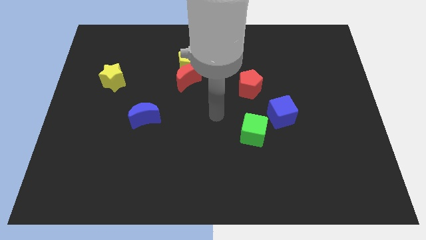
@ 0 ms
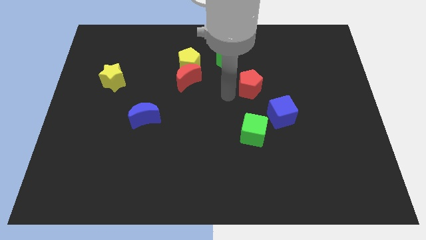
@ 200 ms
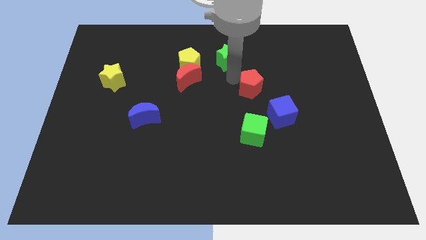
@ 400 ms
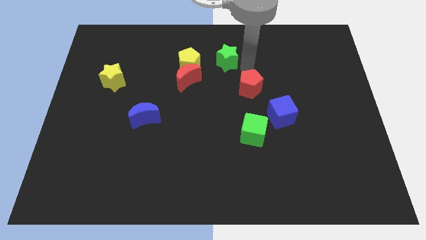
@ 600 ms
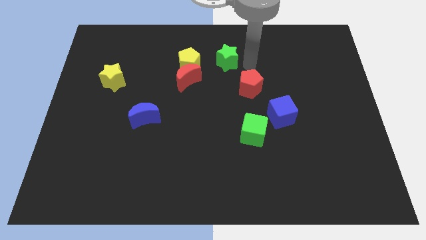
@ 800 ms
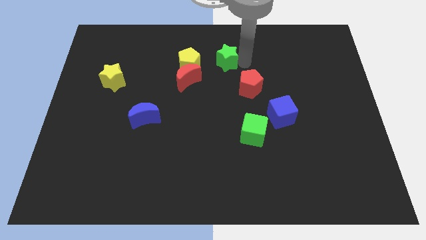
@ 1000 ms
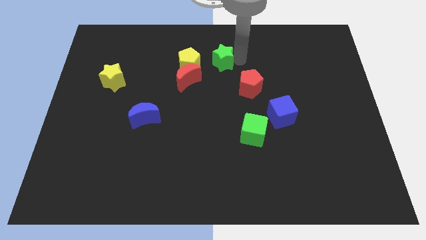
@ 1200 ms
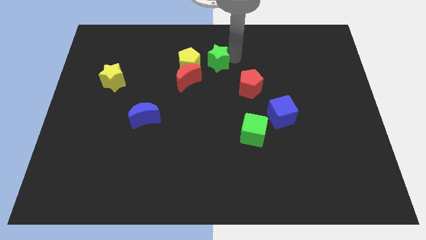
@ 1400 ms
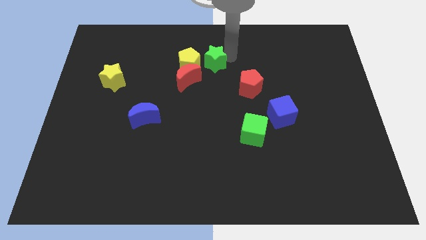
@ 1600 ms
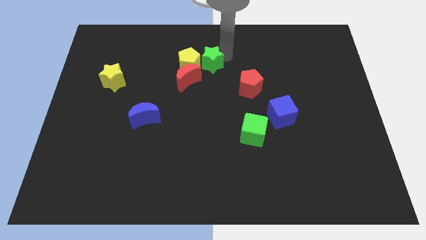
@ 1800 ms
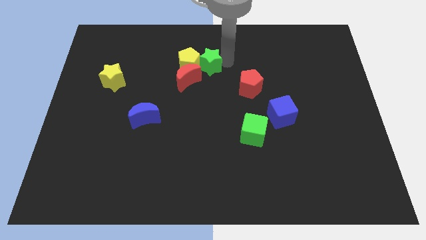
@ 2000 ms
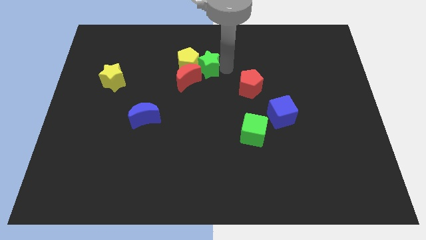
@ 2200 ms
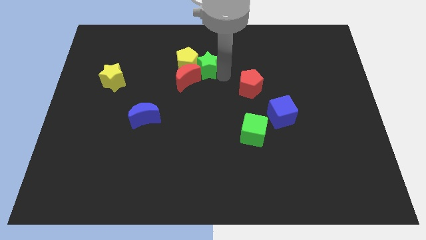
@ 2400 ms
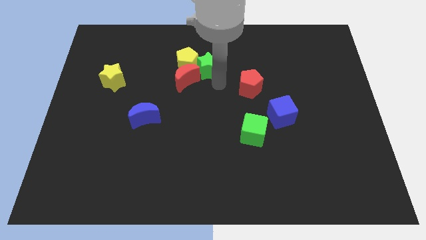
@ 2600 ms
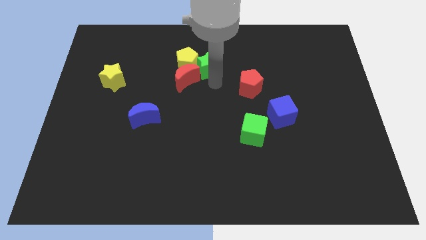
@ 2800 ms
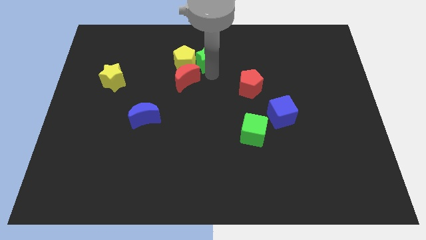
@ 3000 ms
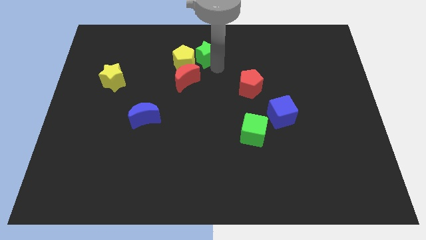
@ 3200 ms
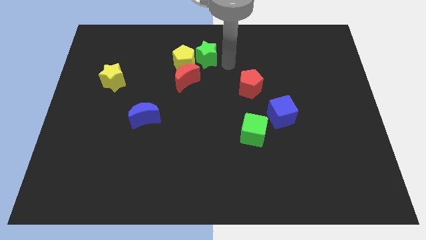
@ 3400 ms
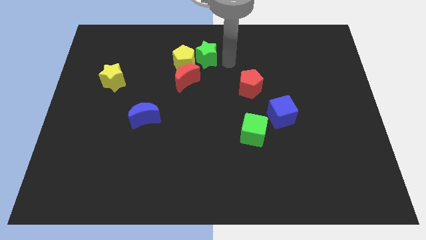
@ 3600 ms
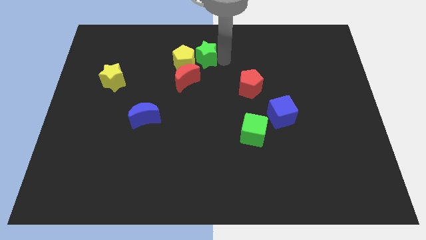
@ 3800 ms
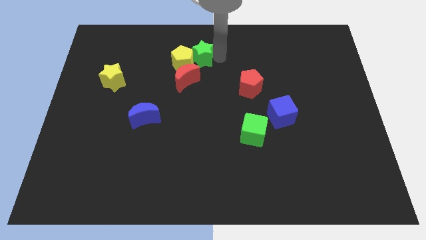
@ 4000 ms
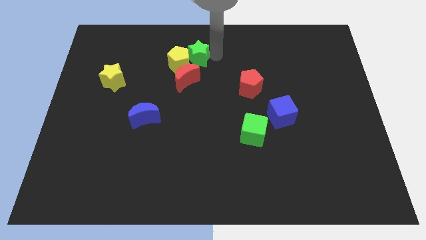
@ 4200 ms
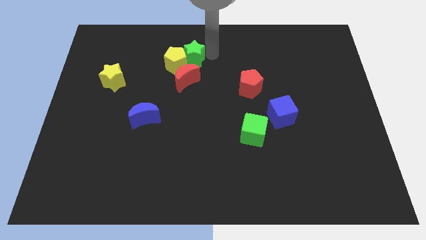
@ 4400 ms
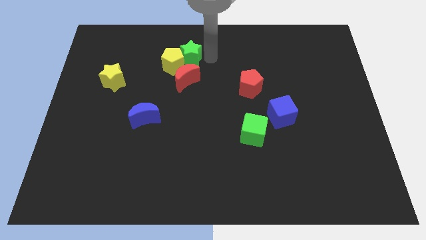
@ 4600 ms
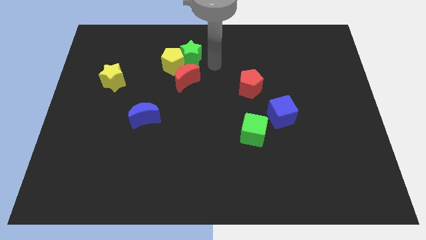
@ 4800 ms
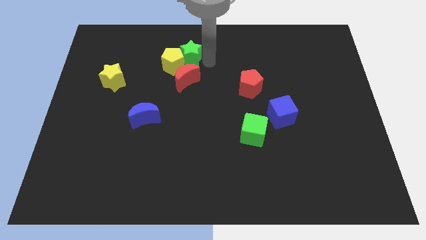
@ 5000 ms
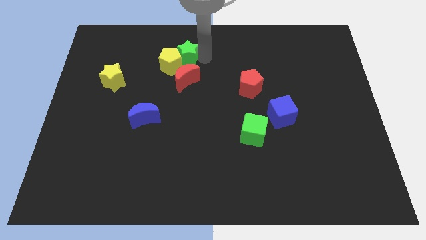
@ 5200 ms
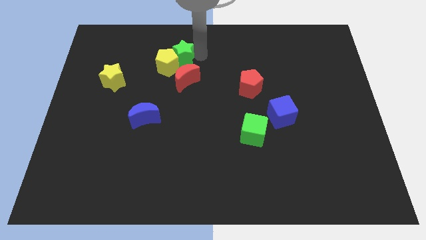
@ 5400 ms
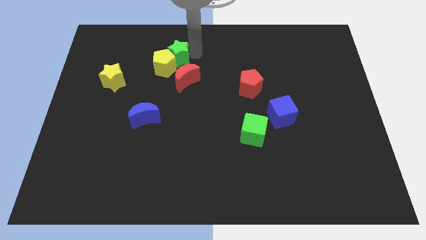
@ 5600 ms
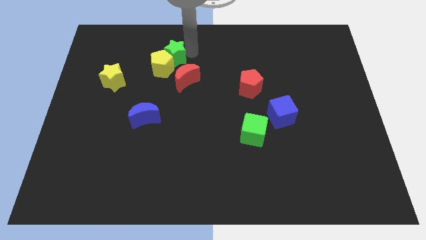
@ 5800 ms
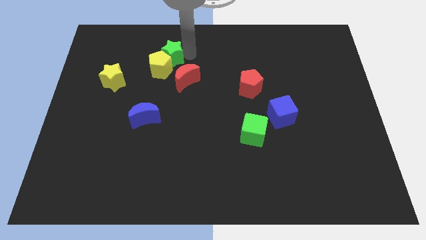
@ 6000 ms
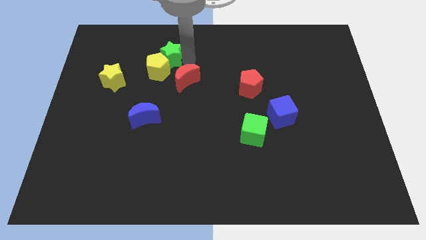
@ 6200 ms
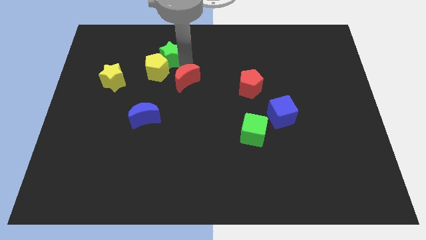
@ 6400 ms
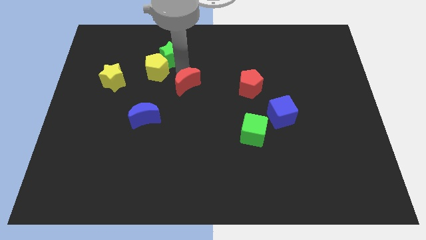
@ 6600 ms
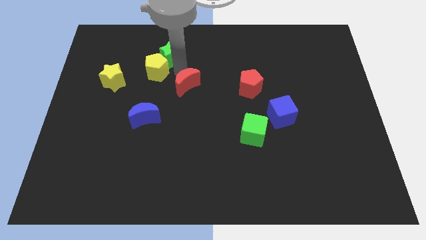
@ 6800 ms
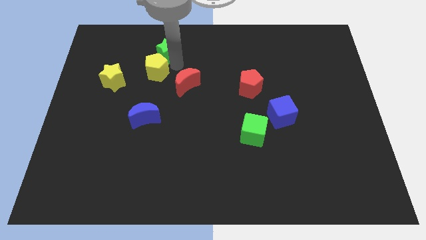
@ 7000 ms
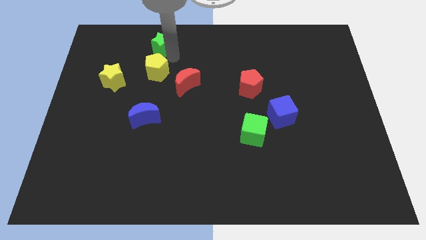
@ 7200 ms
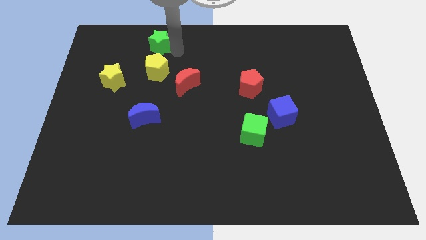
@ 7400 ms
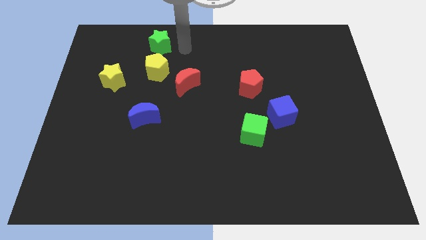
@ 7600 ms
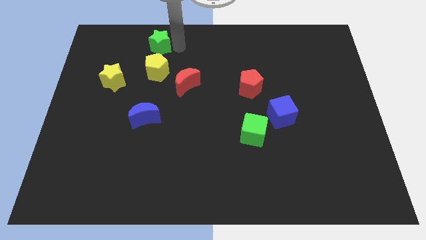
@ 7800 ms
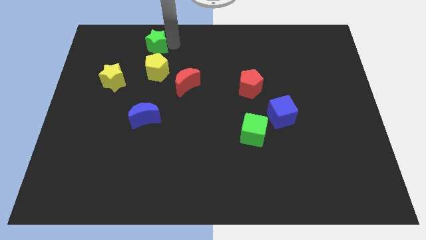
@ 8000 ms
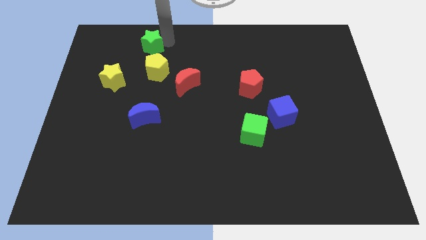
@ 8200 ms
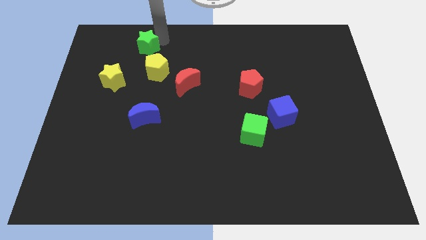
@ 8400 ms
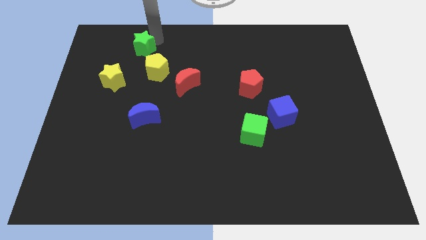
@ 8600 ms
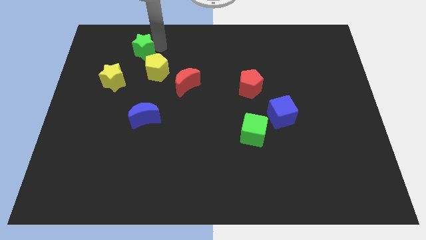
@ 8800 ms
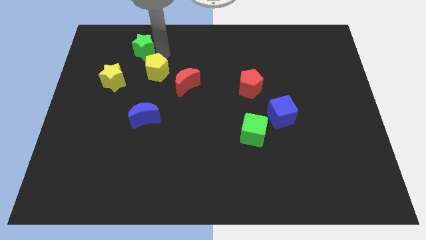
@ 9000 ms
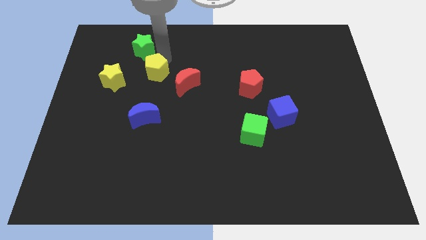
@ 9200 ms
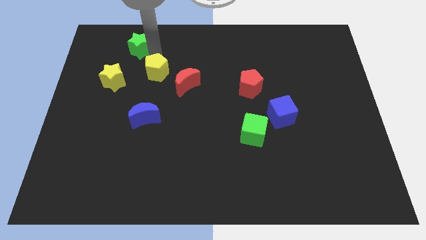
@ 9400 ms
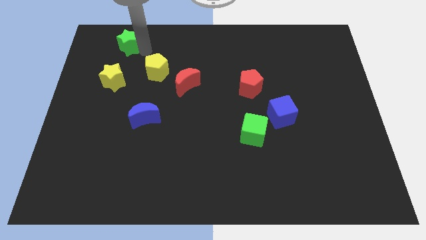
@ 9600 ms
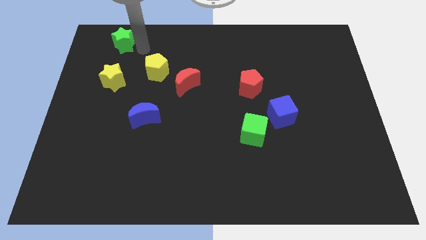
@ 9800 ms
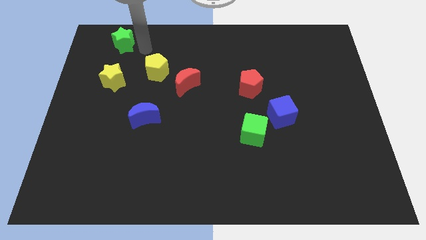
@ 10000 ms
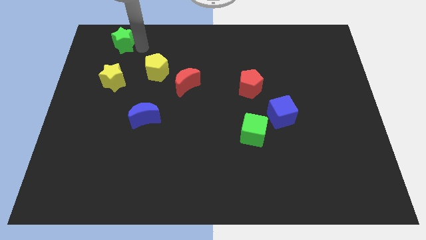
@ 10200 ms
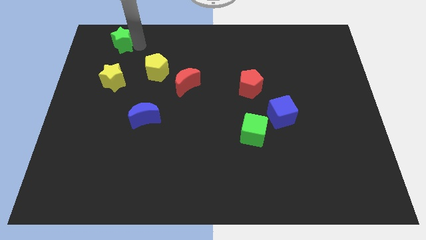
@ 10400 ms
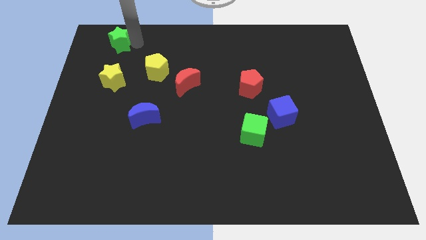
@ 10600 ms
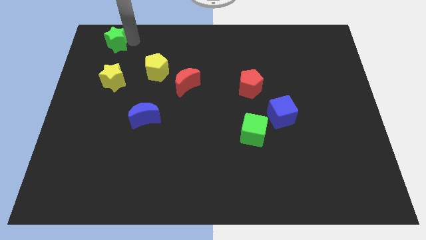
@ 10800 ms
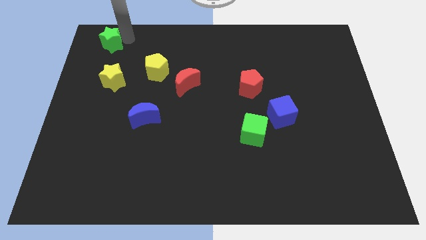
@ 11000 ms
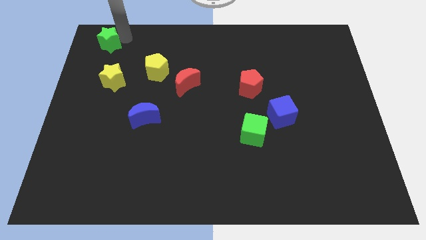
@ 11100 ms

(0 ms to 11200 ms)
move the green star to the top left of the board

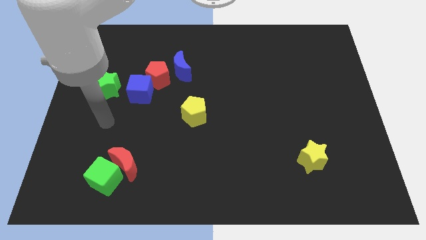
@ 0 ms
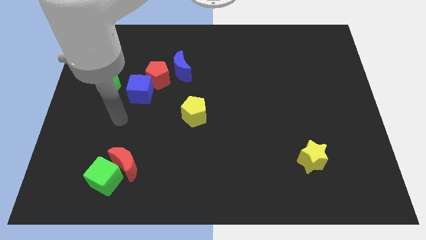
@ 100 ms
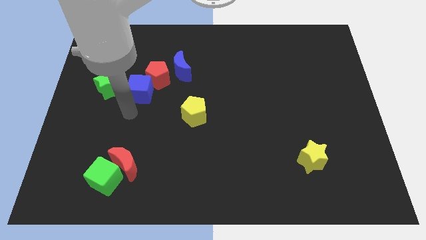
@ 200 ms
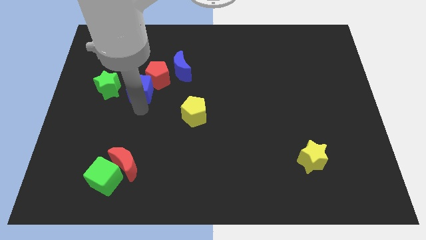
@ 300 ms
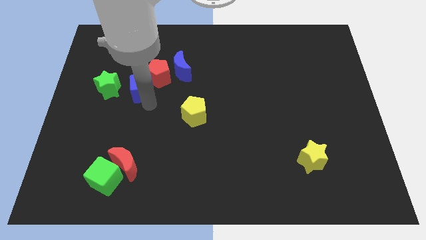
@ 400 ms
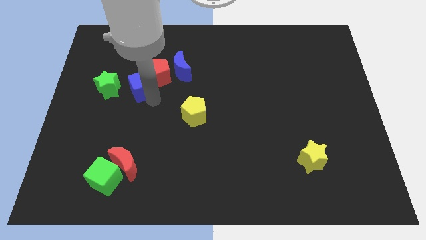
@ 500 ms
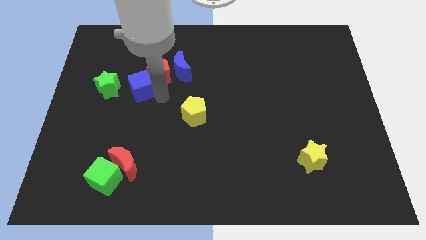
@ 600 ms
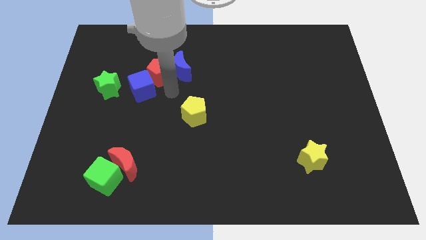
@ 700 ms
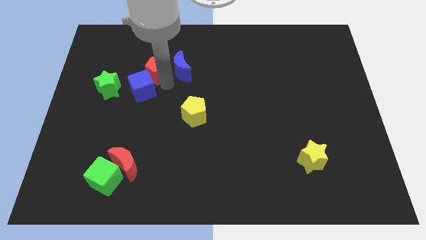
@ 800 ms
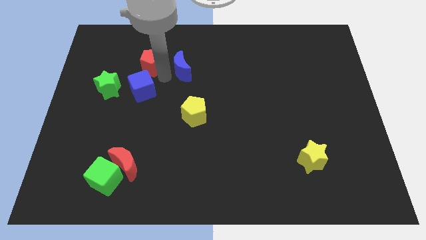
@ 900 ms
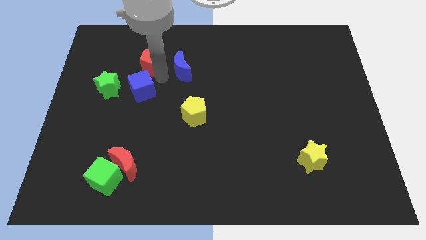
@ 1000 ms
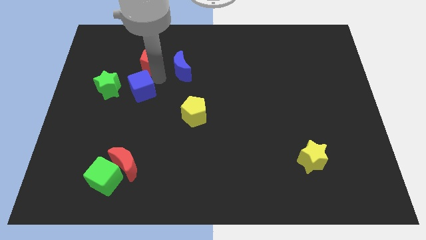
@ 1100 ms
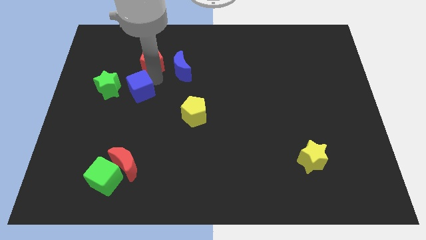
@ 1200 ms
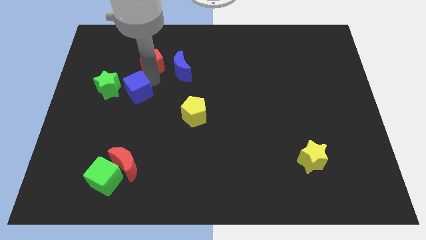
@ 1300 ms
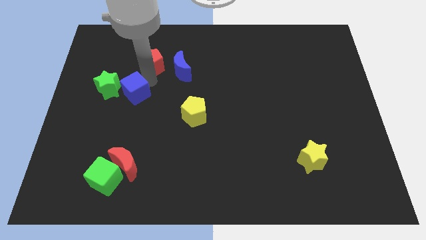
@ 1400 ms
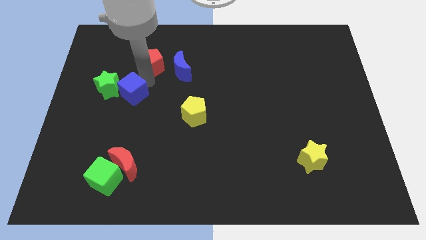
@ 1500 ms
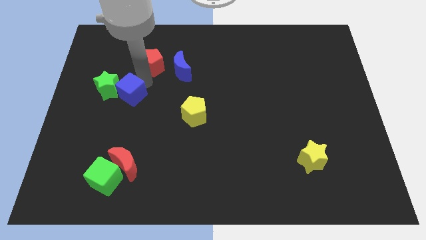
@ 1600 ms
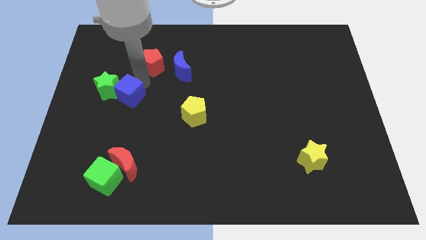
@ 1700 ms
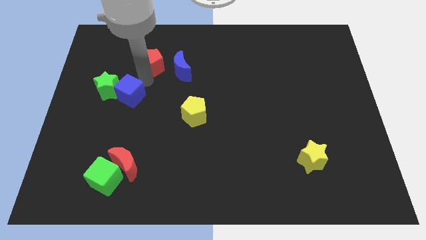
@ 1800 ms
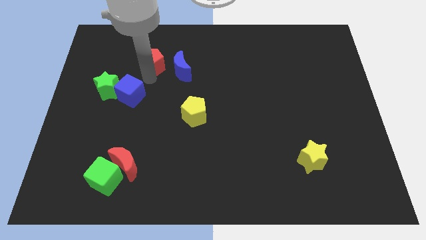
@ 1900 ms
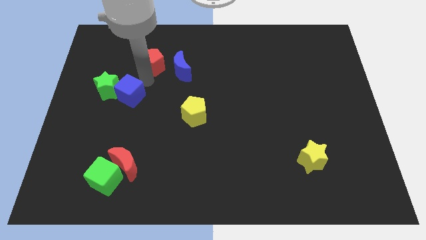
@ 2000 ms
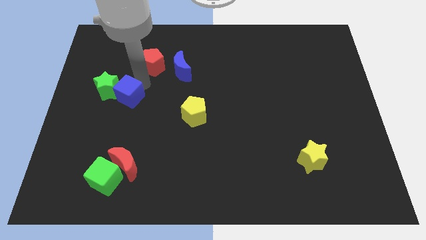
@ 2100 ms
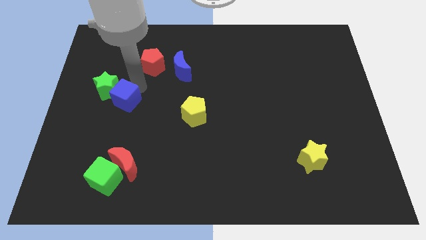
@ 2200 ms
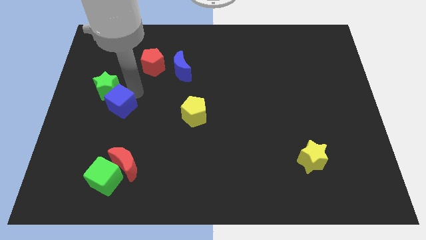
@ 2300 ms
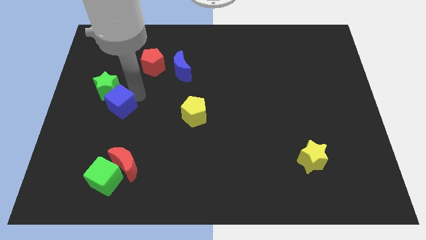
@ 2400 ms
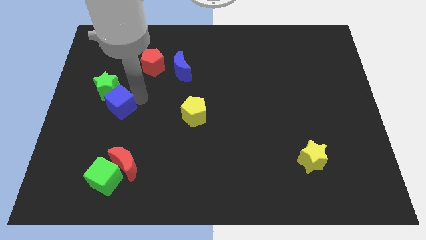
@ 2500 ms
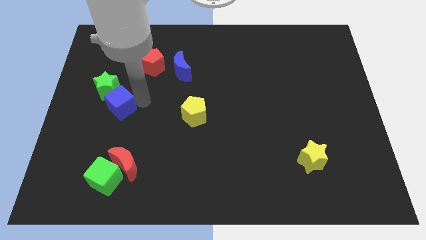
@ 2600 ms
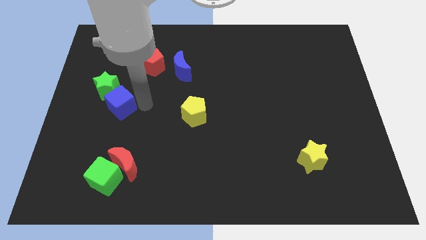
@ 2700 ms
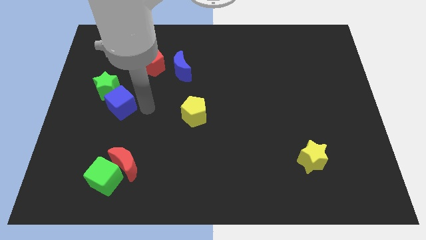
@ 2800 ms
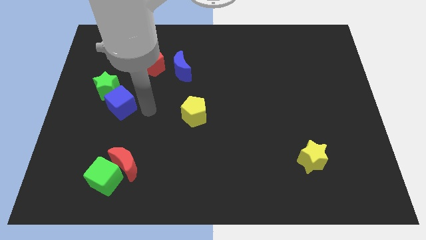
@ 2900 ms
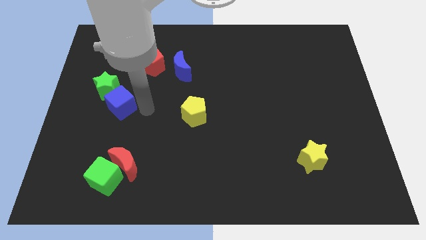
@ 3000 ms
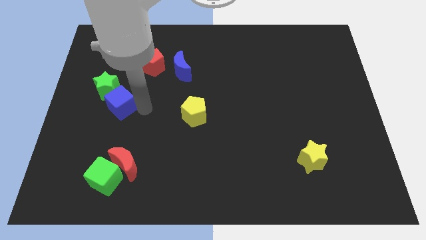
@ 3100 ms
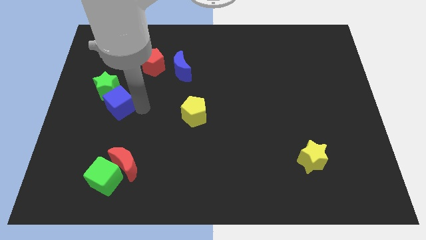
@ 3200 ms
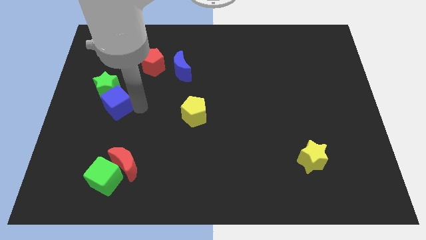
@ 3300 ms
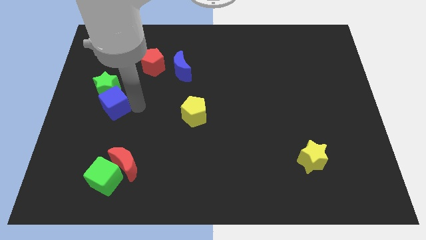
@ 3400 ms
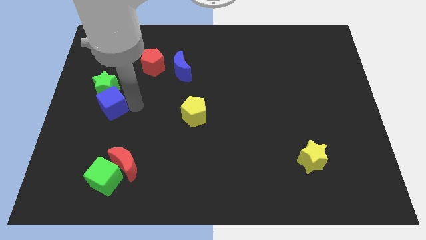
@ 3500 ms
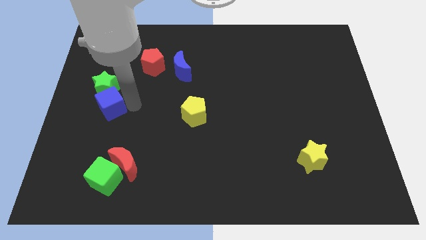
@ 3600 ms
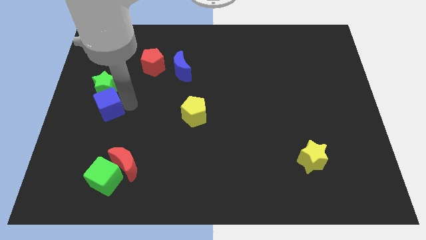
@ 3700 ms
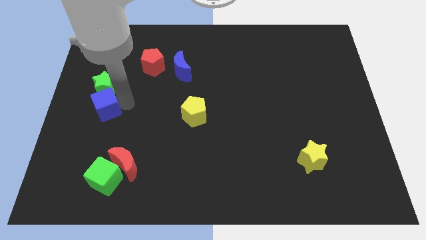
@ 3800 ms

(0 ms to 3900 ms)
push the blue cube to the left side of the board
